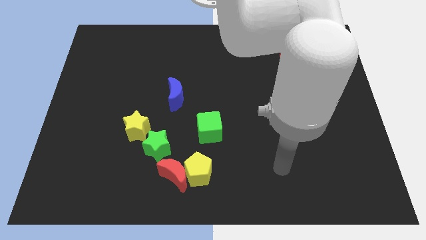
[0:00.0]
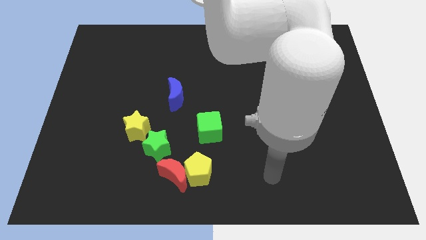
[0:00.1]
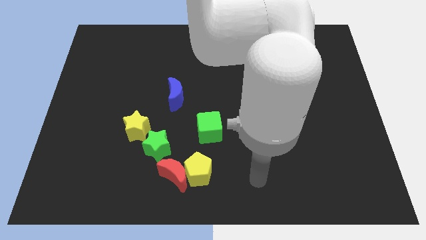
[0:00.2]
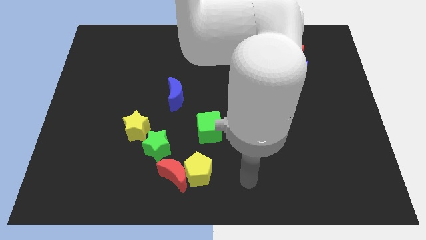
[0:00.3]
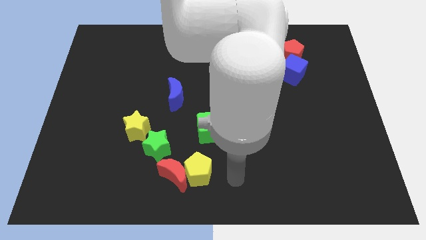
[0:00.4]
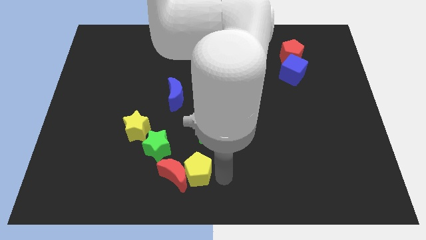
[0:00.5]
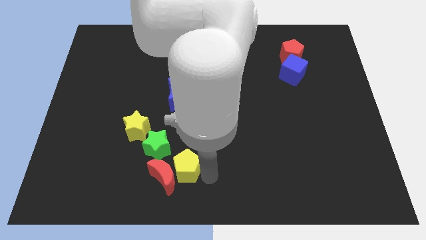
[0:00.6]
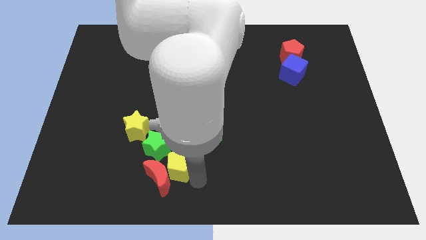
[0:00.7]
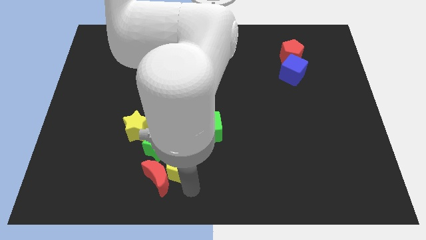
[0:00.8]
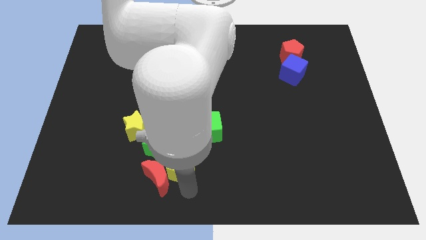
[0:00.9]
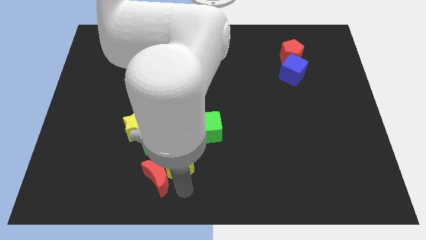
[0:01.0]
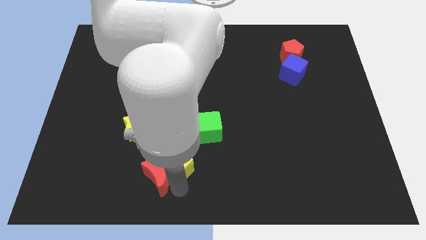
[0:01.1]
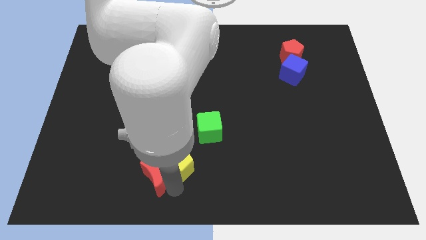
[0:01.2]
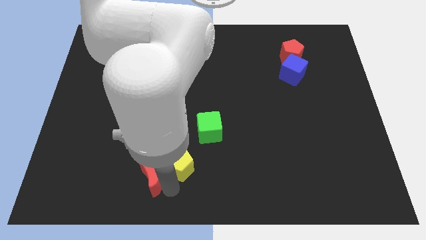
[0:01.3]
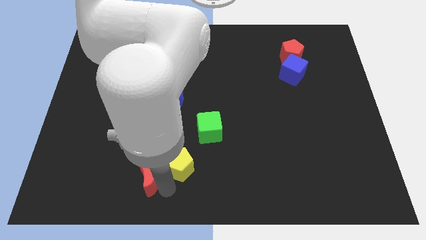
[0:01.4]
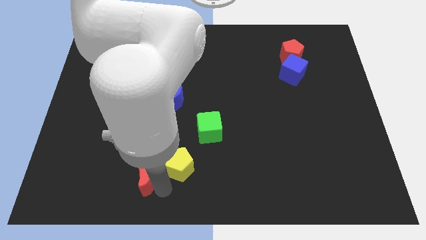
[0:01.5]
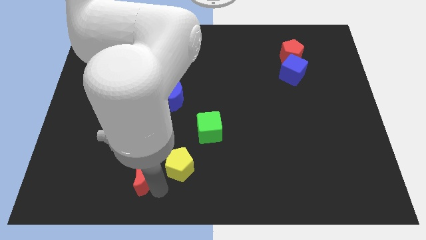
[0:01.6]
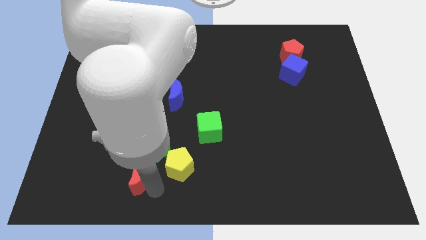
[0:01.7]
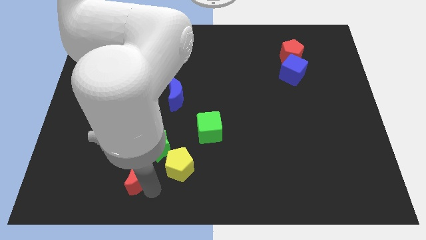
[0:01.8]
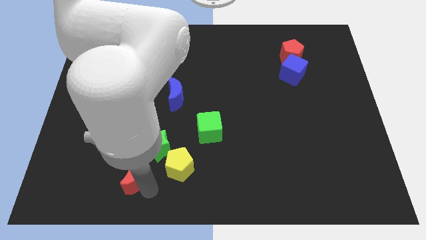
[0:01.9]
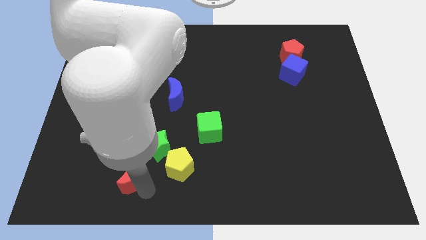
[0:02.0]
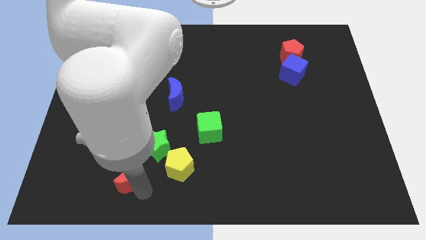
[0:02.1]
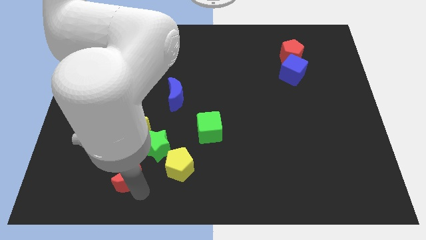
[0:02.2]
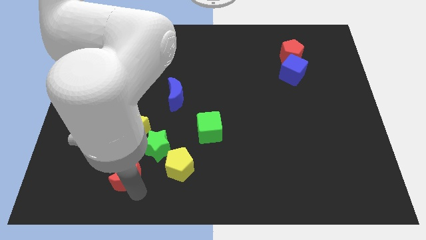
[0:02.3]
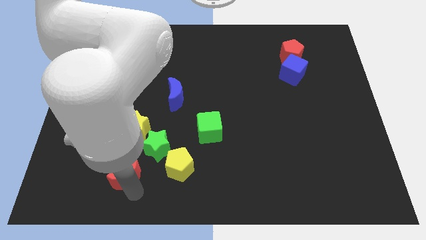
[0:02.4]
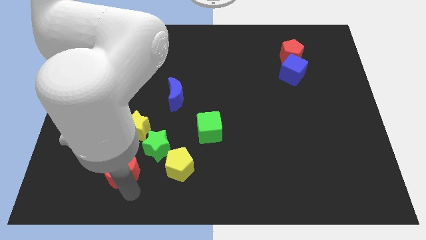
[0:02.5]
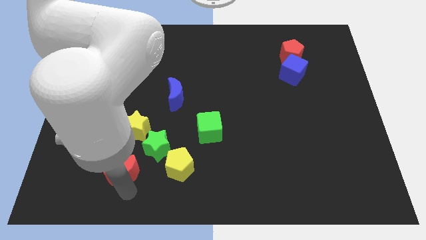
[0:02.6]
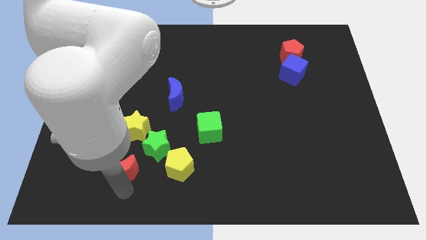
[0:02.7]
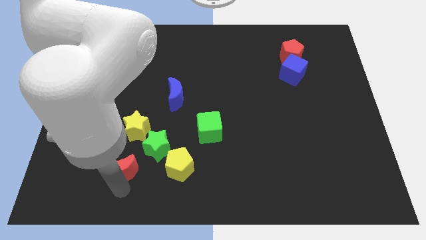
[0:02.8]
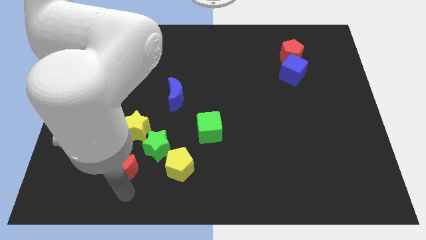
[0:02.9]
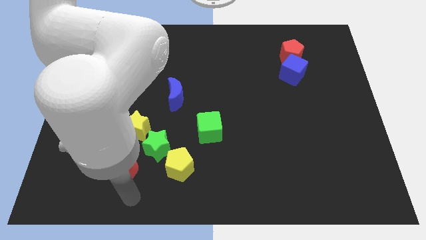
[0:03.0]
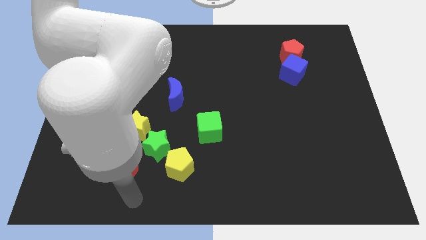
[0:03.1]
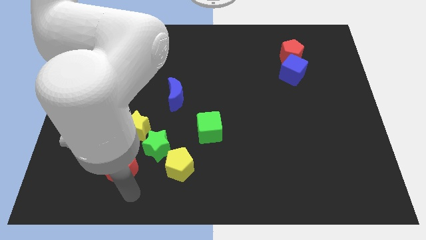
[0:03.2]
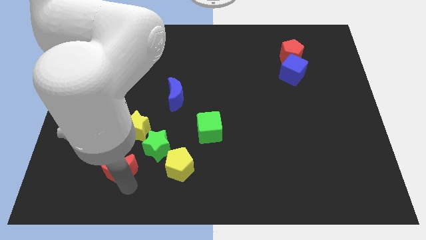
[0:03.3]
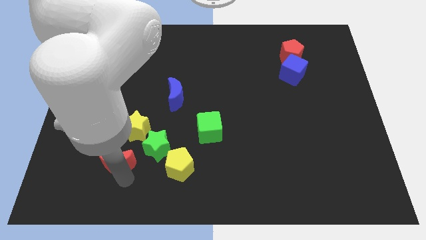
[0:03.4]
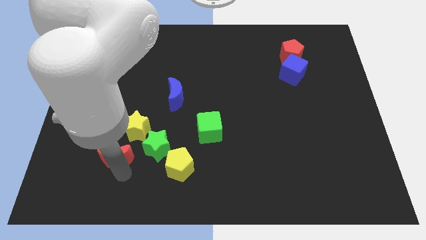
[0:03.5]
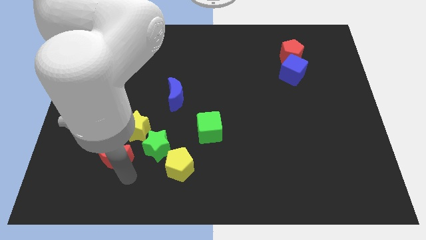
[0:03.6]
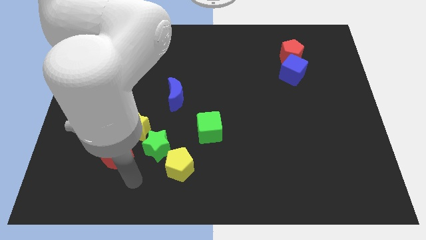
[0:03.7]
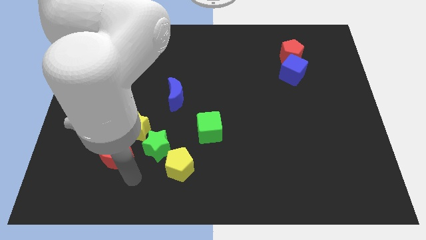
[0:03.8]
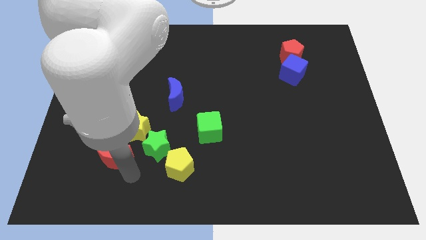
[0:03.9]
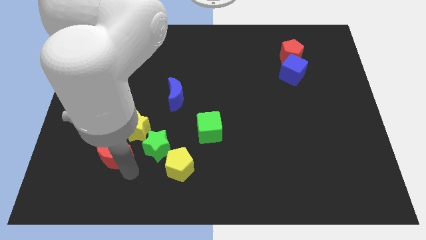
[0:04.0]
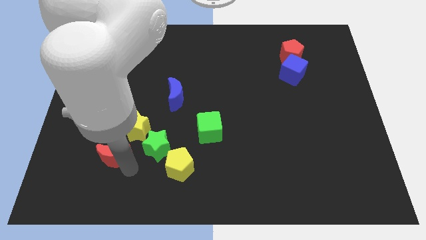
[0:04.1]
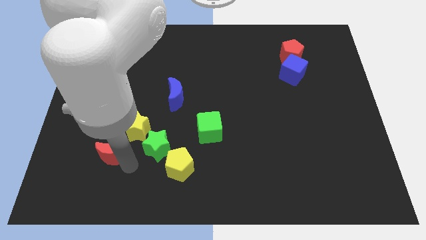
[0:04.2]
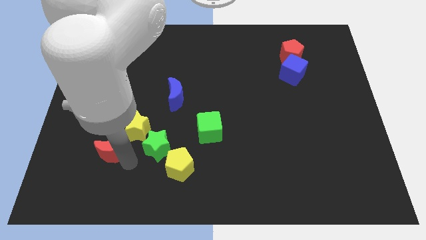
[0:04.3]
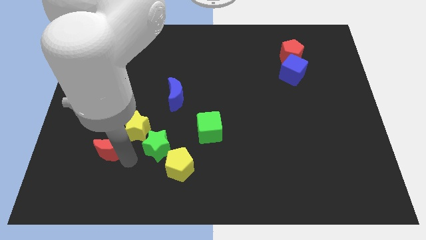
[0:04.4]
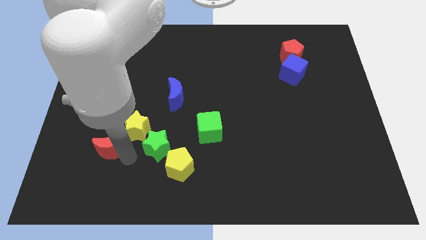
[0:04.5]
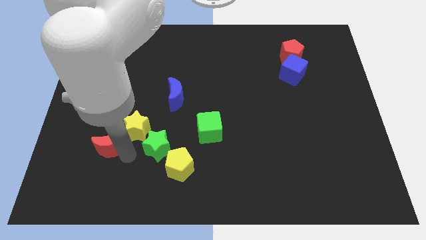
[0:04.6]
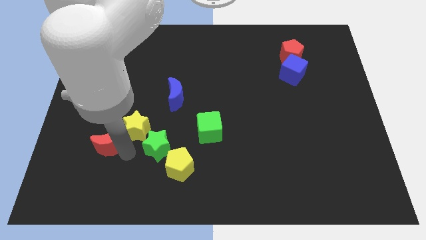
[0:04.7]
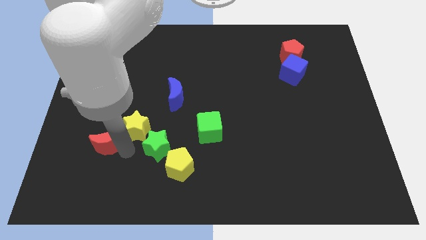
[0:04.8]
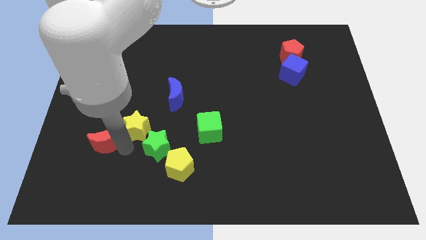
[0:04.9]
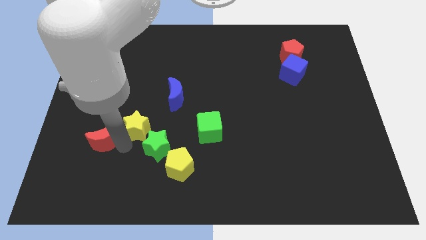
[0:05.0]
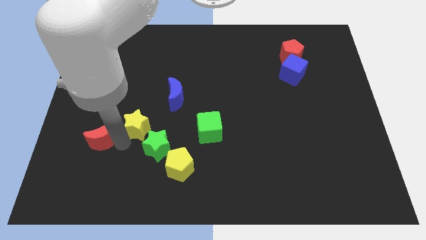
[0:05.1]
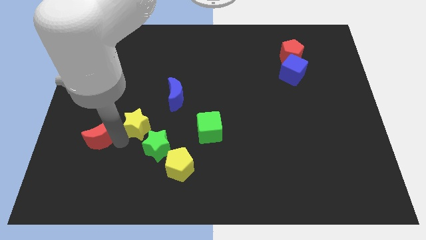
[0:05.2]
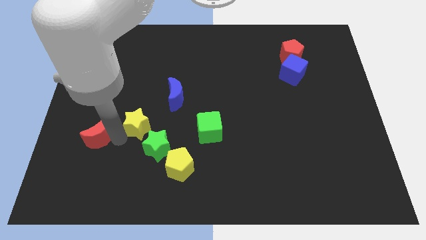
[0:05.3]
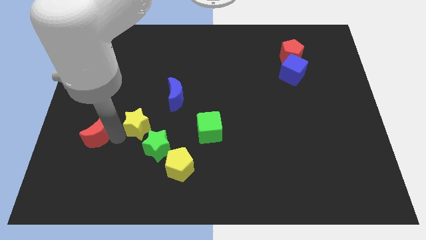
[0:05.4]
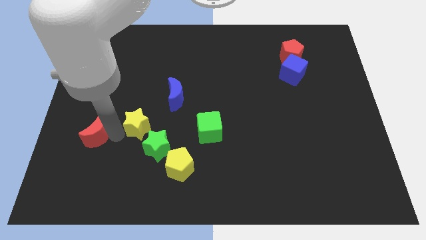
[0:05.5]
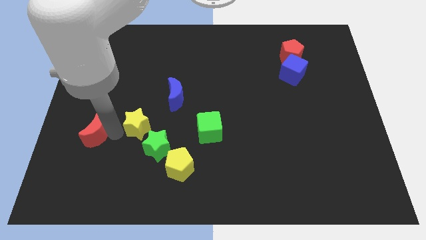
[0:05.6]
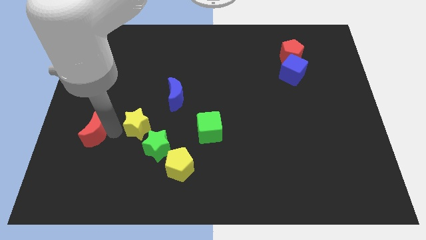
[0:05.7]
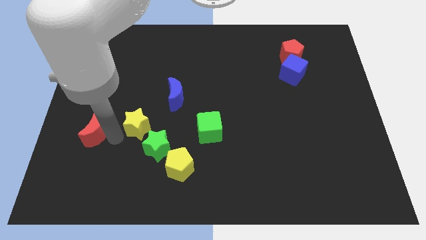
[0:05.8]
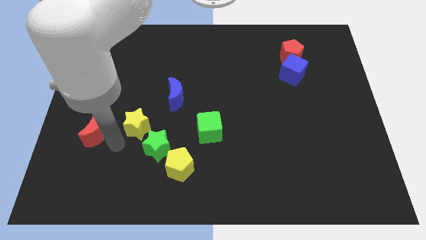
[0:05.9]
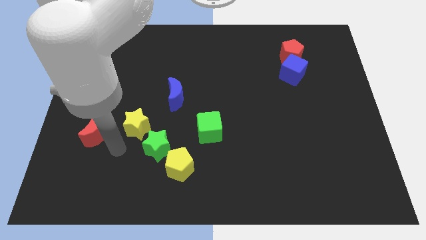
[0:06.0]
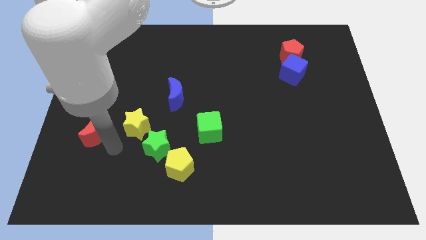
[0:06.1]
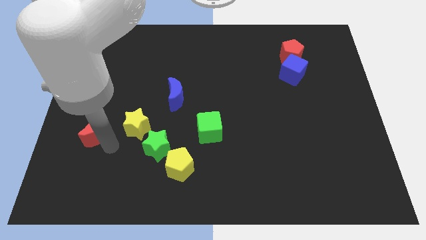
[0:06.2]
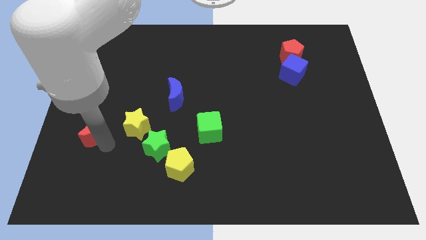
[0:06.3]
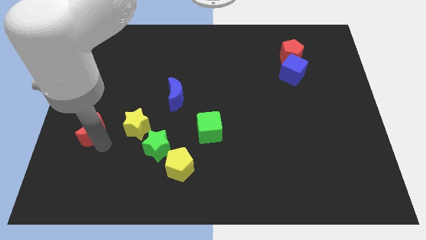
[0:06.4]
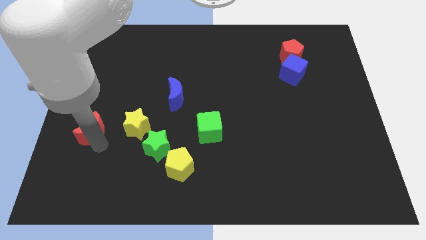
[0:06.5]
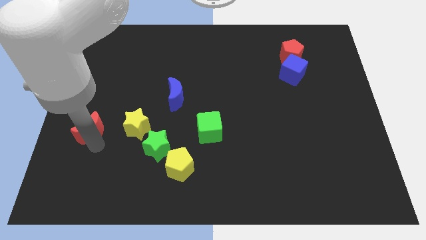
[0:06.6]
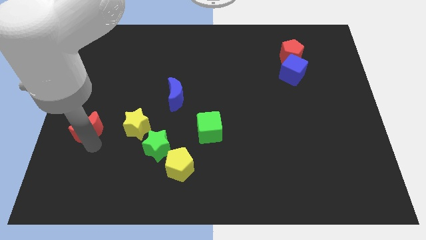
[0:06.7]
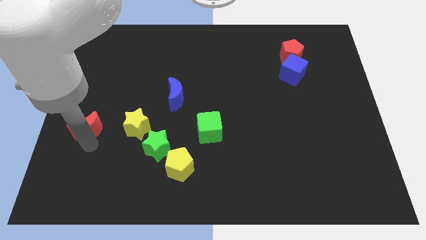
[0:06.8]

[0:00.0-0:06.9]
put the red moon to the center left
